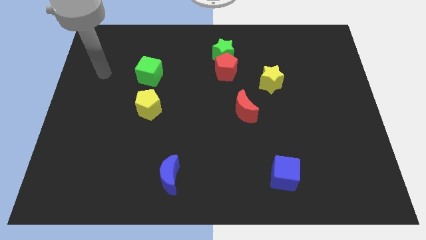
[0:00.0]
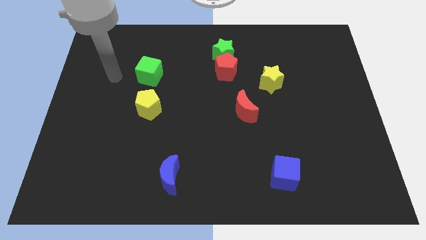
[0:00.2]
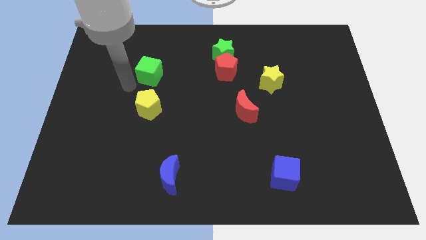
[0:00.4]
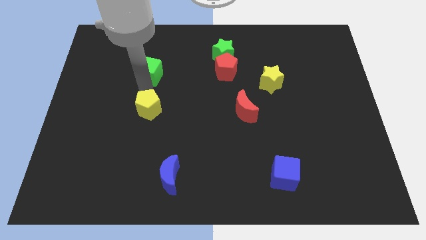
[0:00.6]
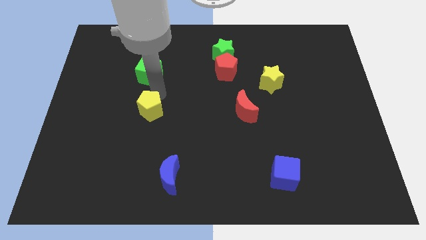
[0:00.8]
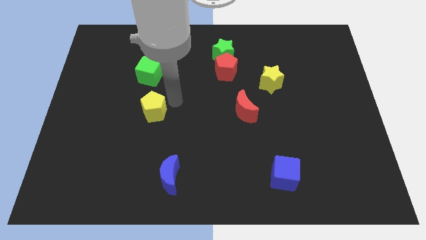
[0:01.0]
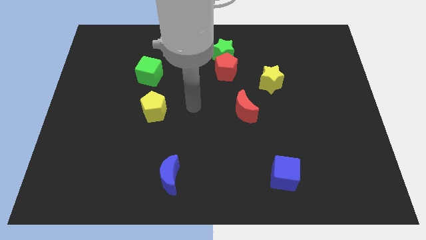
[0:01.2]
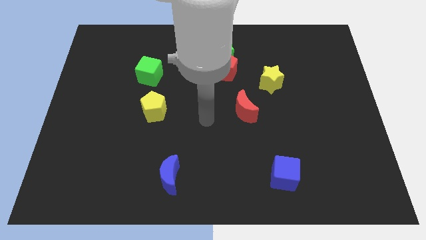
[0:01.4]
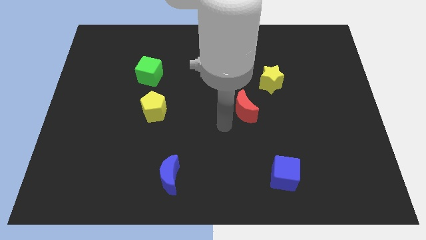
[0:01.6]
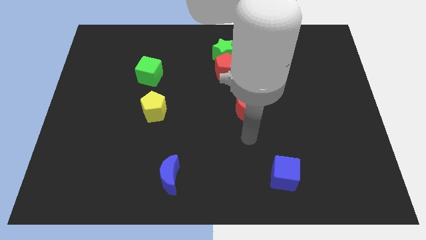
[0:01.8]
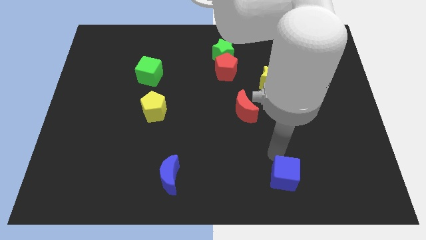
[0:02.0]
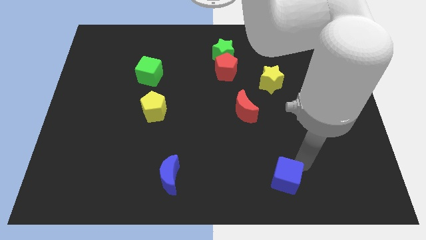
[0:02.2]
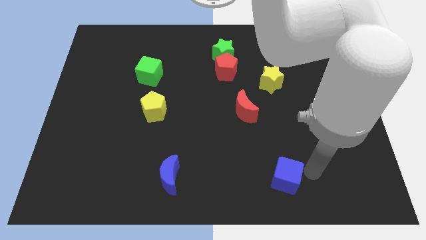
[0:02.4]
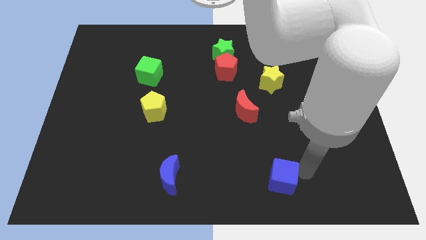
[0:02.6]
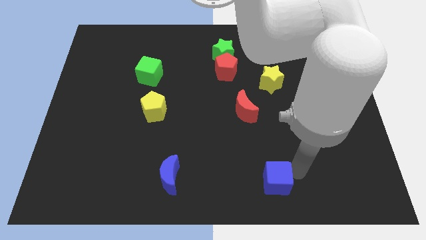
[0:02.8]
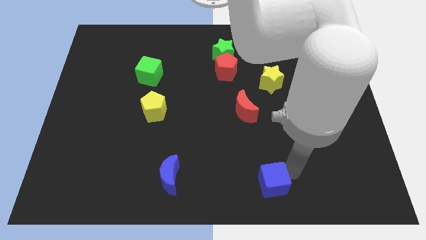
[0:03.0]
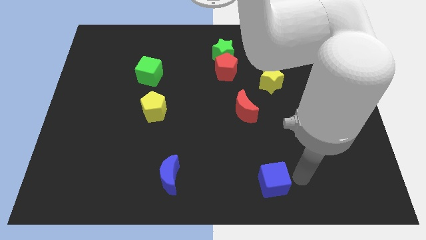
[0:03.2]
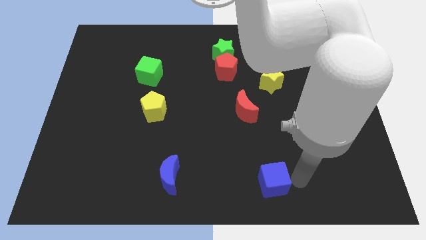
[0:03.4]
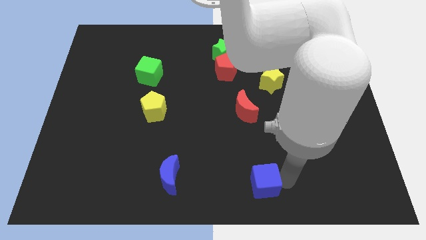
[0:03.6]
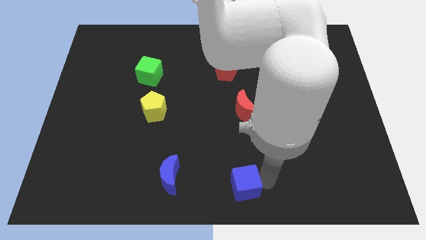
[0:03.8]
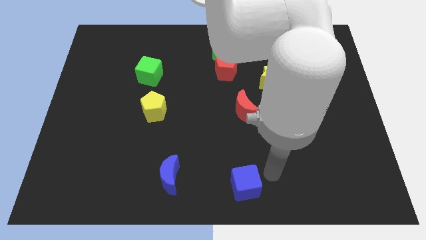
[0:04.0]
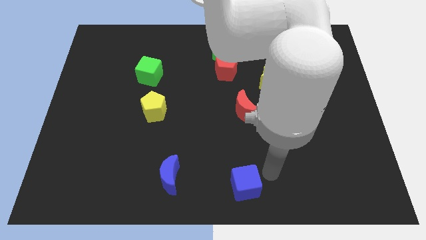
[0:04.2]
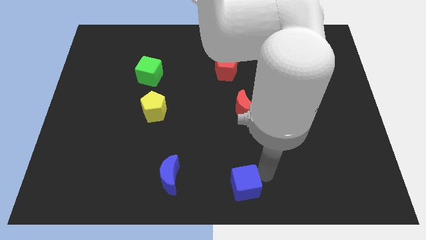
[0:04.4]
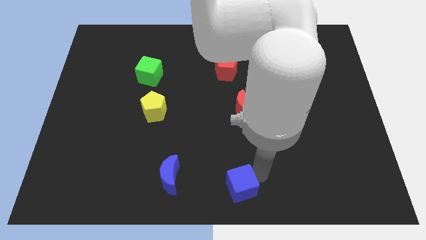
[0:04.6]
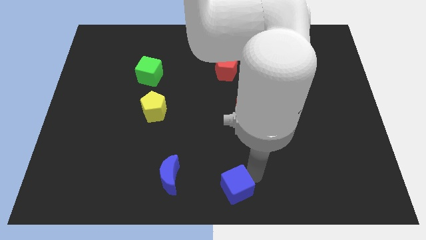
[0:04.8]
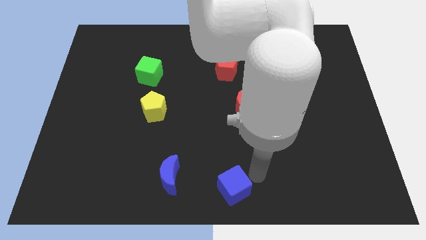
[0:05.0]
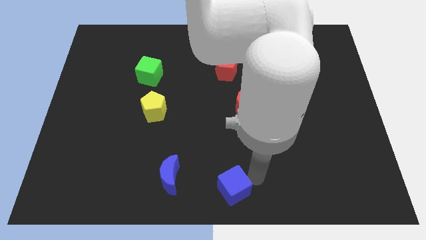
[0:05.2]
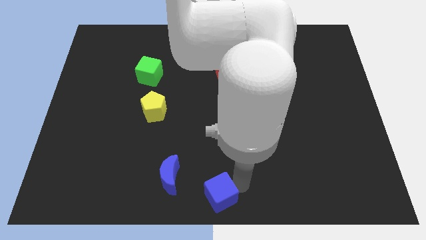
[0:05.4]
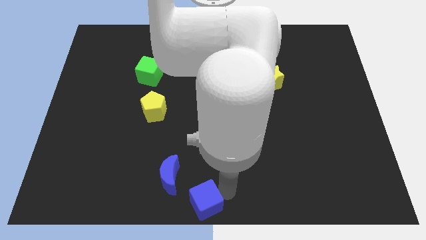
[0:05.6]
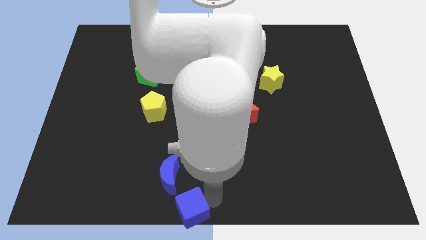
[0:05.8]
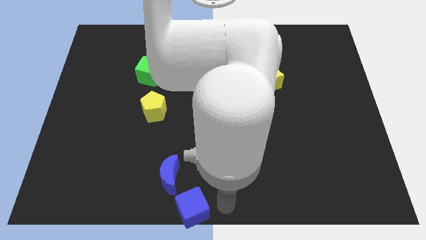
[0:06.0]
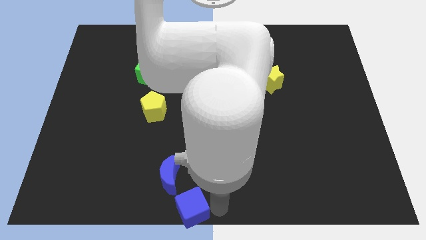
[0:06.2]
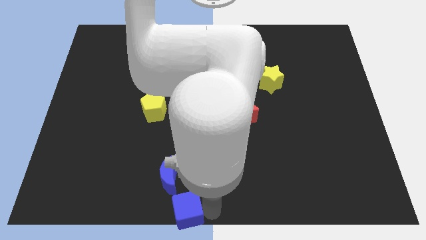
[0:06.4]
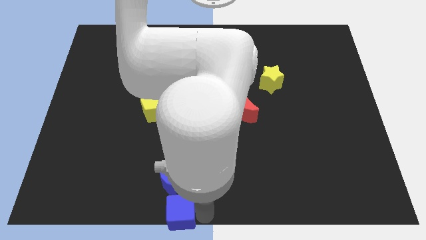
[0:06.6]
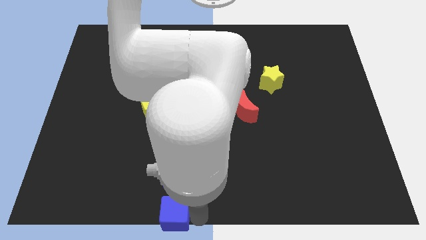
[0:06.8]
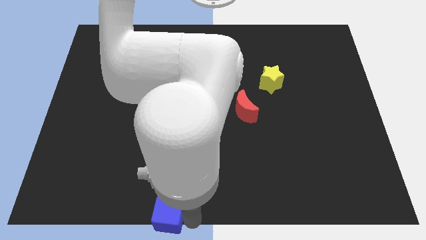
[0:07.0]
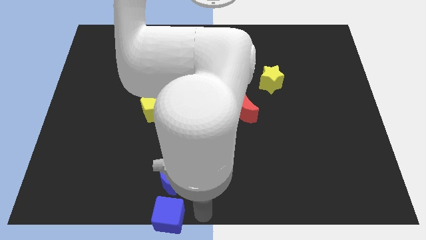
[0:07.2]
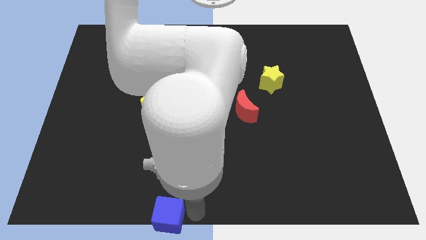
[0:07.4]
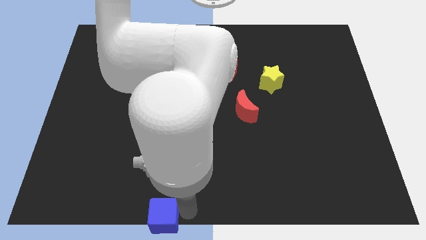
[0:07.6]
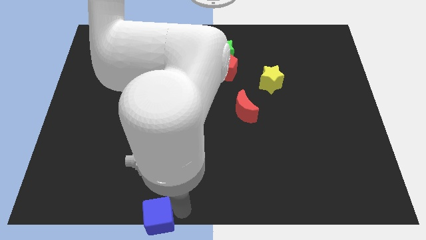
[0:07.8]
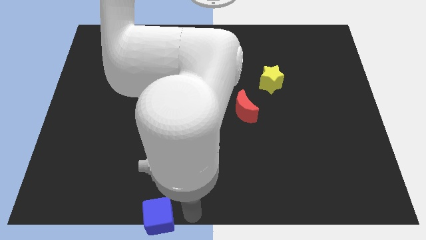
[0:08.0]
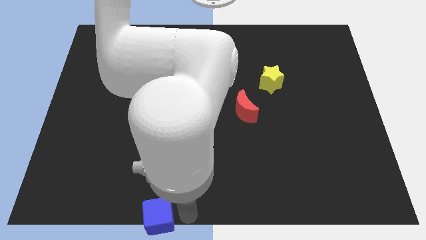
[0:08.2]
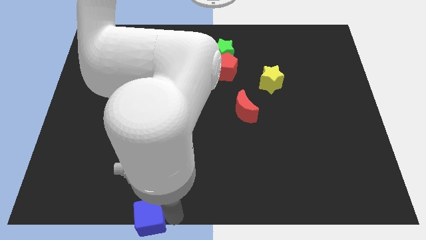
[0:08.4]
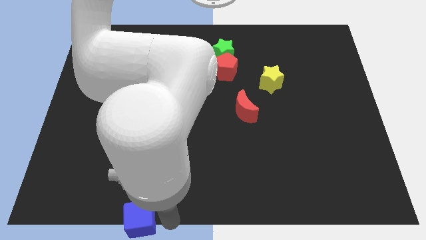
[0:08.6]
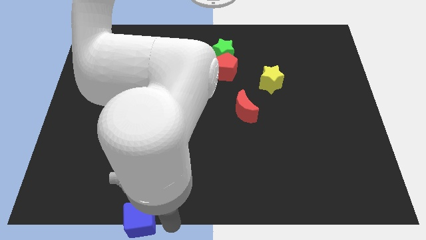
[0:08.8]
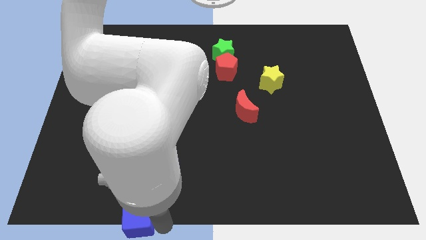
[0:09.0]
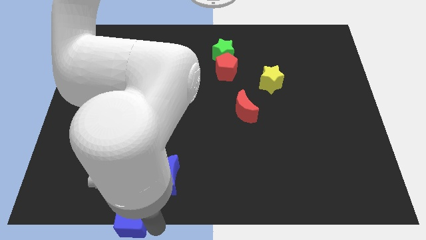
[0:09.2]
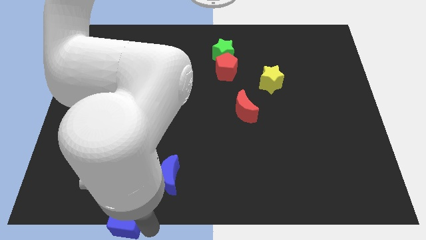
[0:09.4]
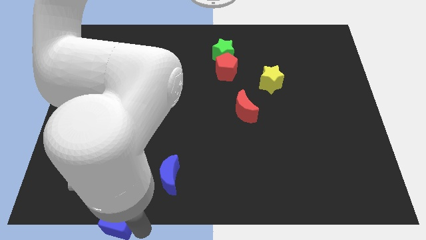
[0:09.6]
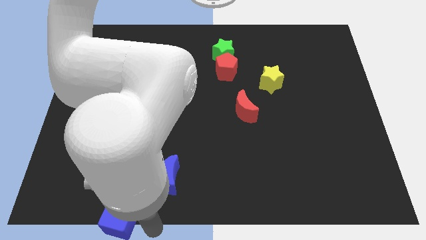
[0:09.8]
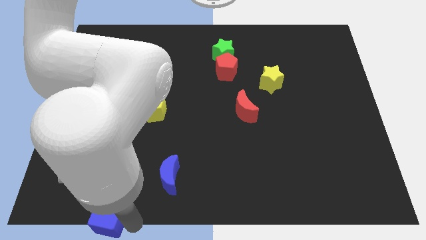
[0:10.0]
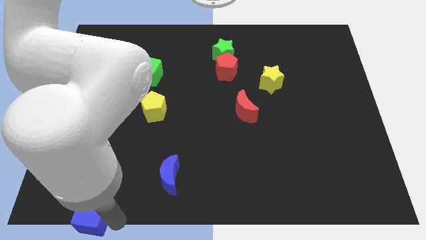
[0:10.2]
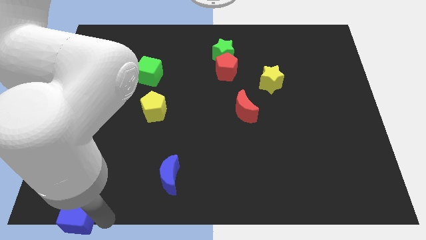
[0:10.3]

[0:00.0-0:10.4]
slide the blue cube to the lower left corner

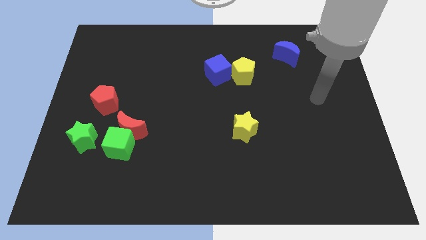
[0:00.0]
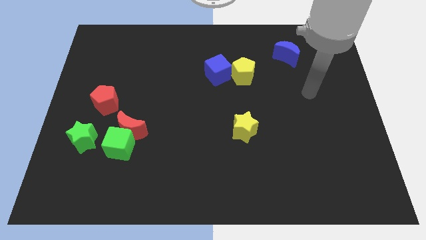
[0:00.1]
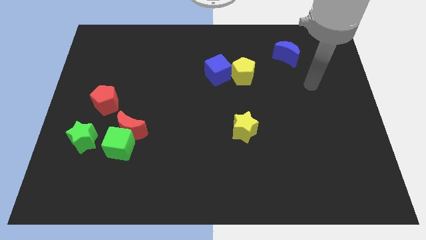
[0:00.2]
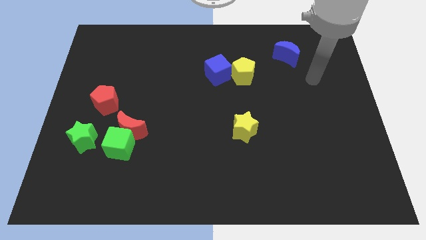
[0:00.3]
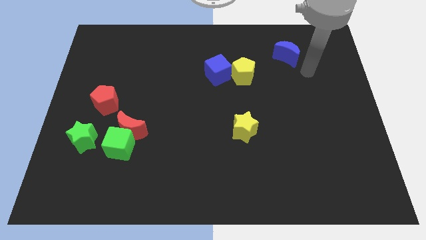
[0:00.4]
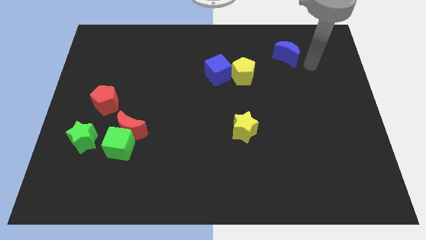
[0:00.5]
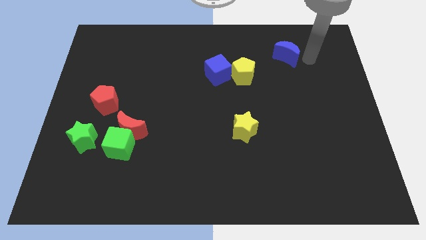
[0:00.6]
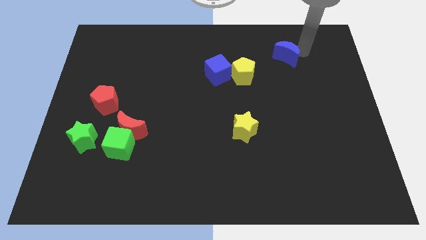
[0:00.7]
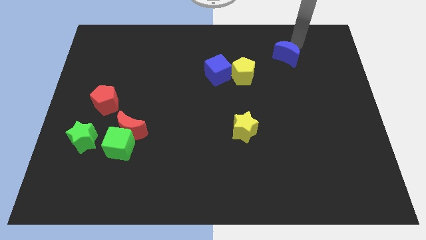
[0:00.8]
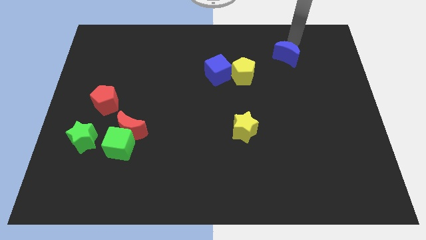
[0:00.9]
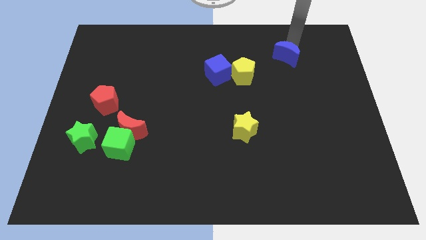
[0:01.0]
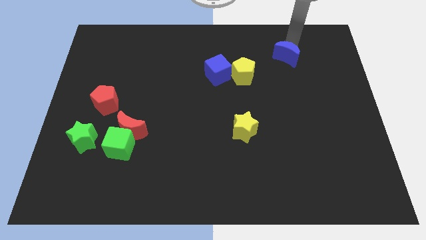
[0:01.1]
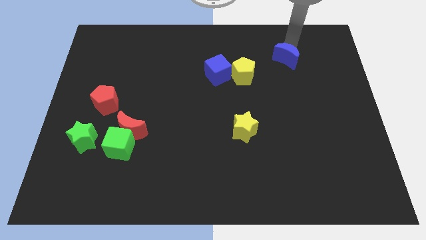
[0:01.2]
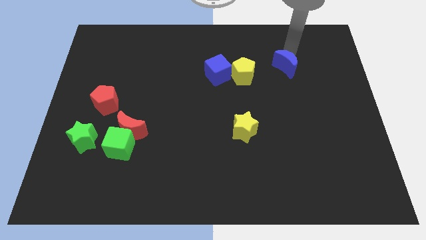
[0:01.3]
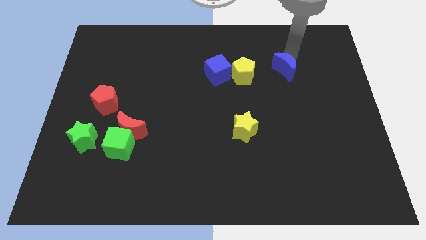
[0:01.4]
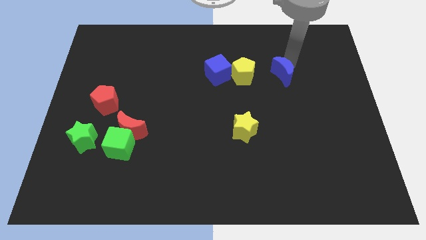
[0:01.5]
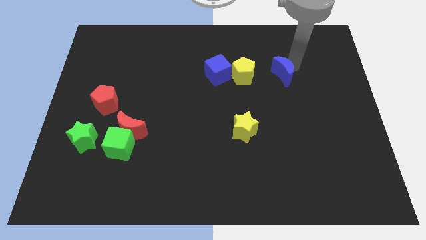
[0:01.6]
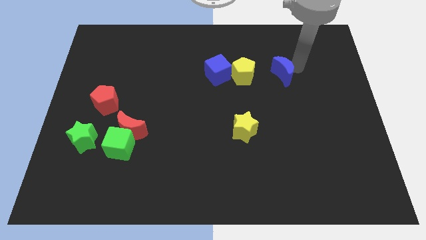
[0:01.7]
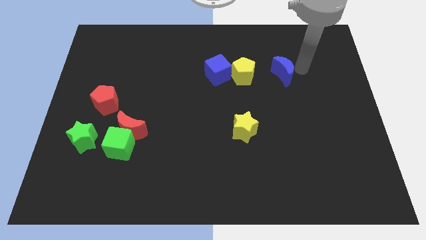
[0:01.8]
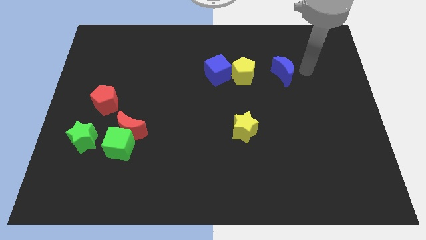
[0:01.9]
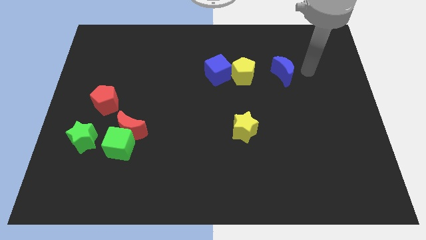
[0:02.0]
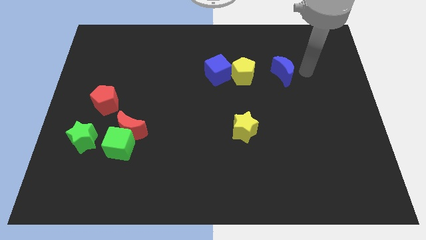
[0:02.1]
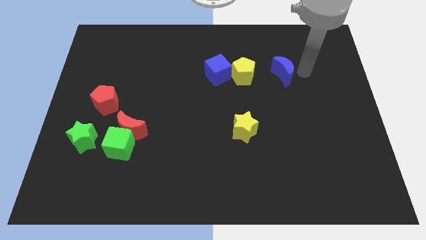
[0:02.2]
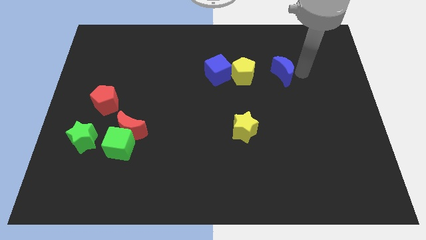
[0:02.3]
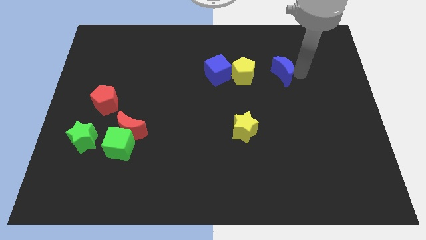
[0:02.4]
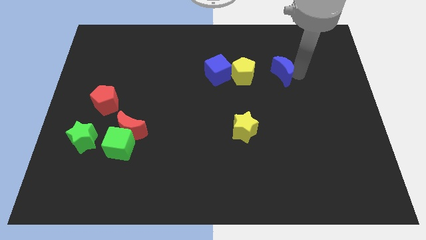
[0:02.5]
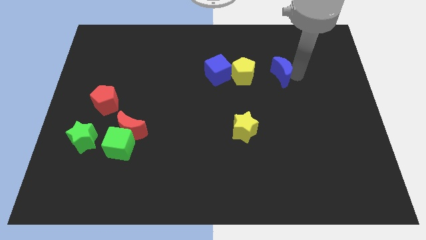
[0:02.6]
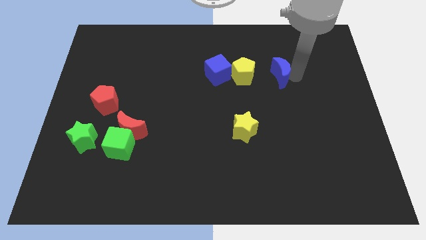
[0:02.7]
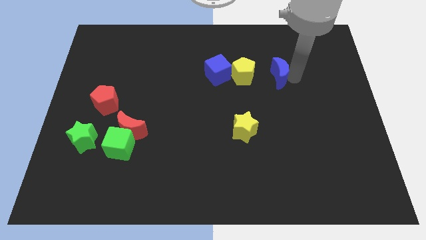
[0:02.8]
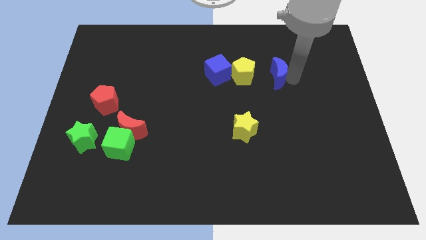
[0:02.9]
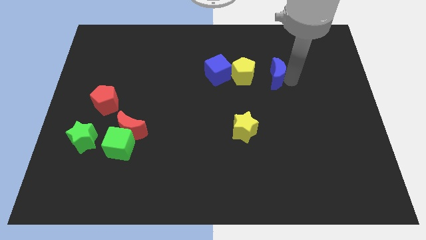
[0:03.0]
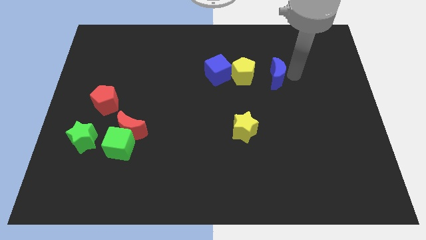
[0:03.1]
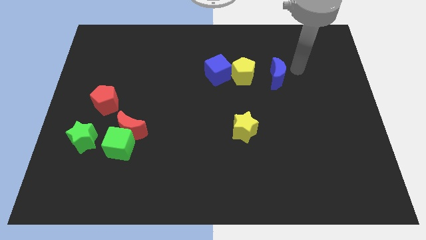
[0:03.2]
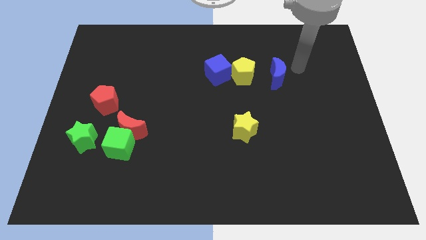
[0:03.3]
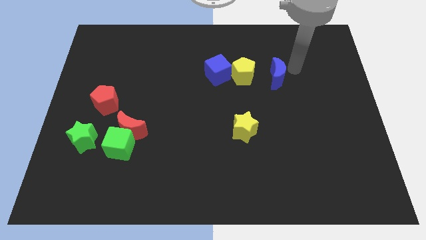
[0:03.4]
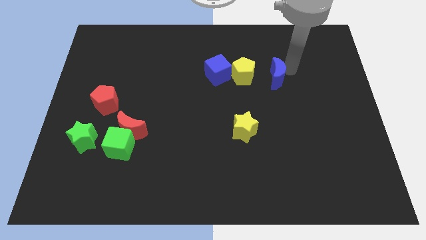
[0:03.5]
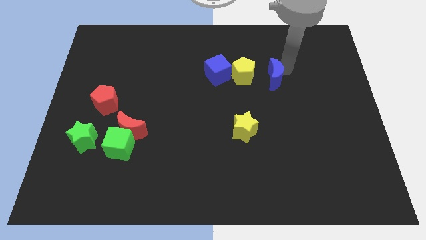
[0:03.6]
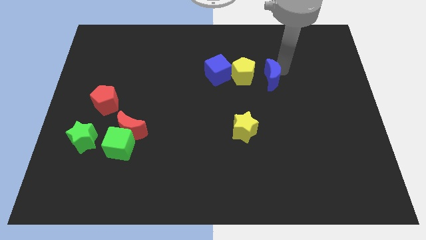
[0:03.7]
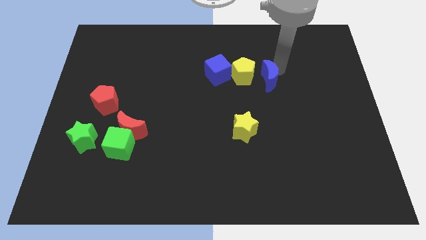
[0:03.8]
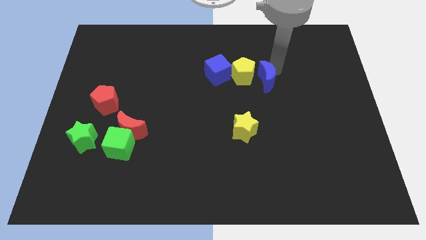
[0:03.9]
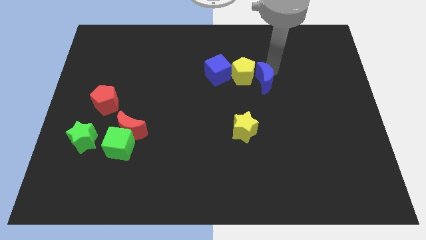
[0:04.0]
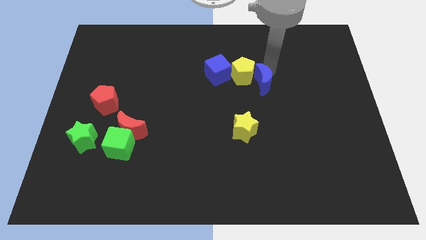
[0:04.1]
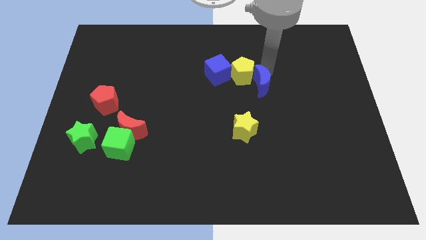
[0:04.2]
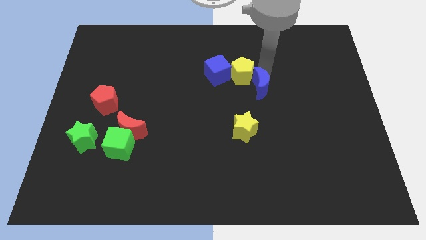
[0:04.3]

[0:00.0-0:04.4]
put the blue moon to the middle of the board
